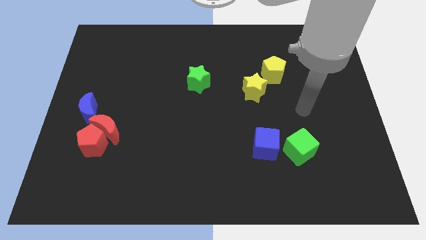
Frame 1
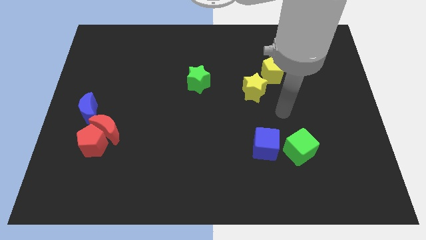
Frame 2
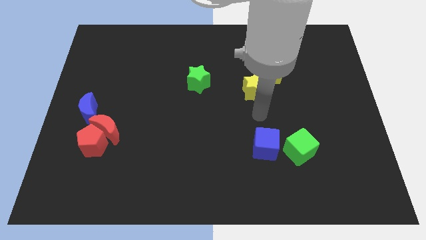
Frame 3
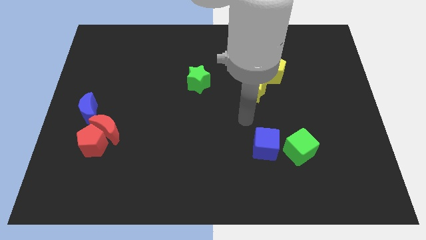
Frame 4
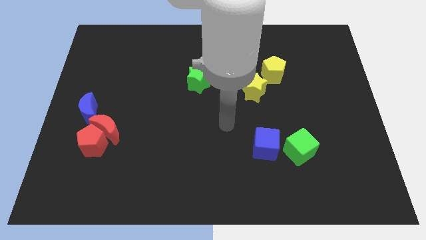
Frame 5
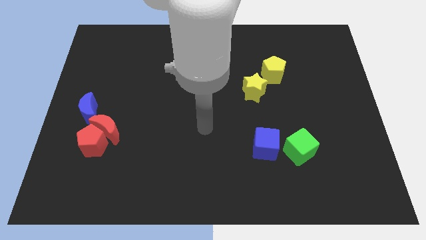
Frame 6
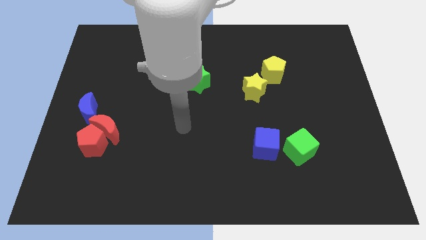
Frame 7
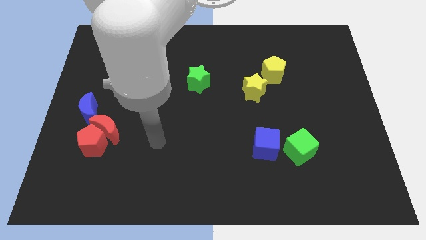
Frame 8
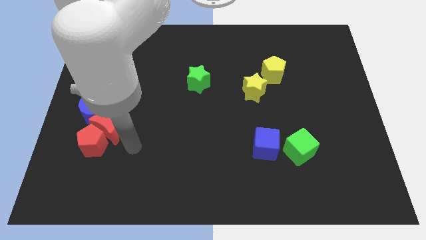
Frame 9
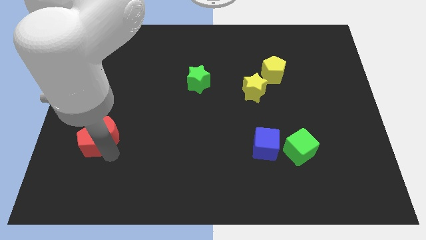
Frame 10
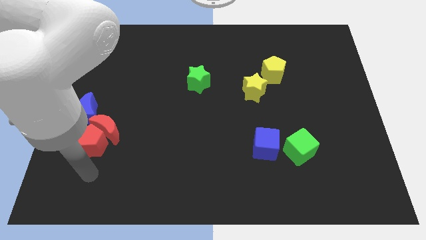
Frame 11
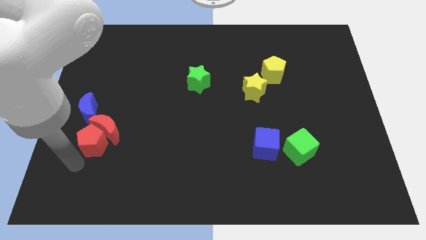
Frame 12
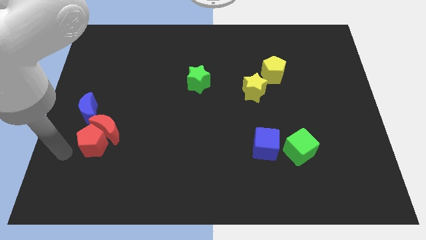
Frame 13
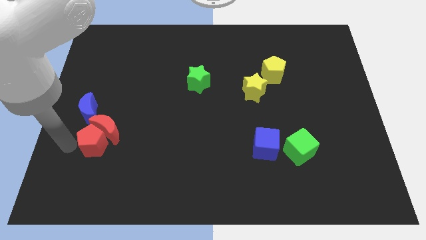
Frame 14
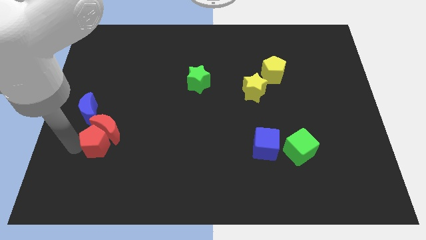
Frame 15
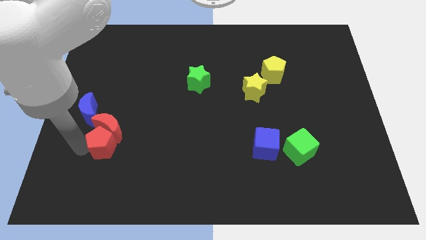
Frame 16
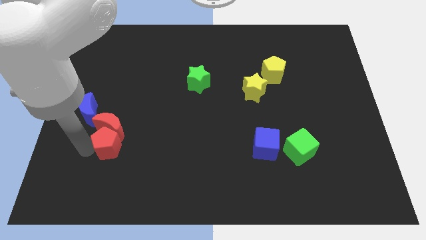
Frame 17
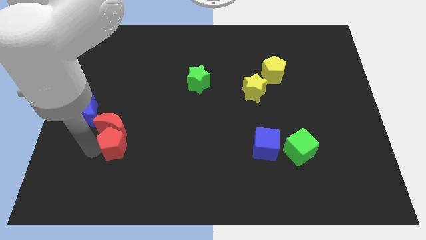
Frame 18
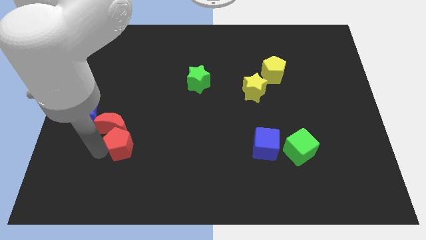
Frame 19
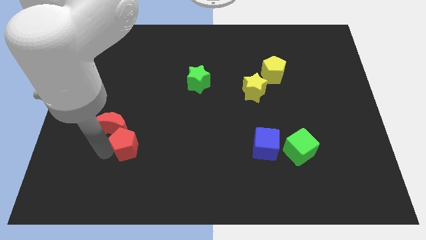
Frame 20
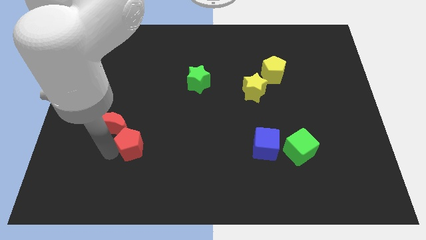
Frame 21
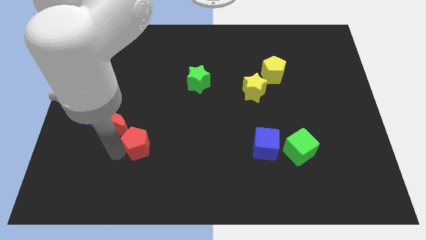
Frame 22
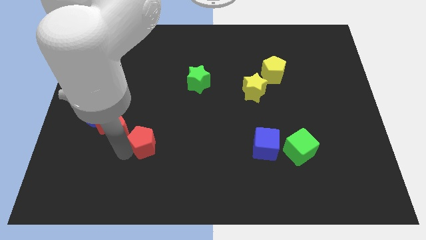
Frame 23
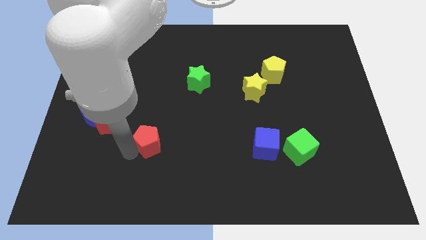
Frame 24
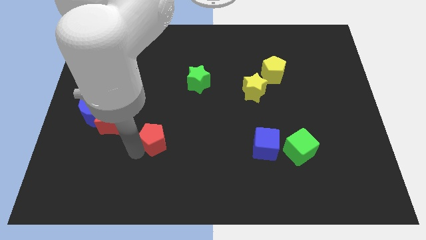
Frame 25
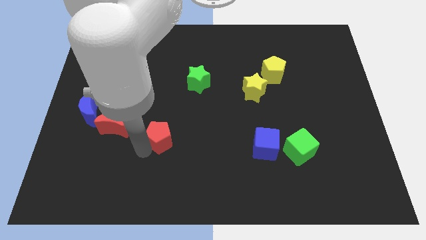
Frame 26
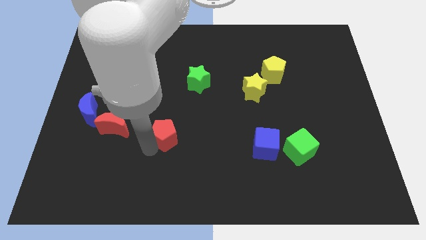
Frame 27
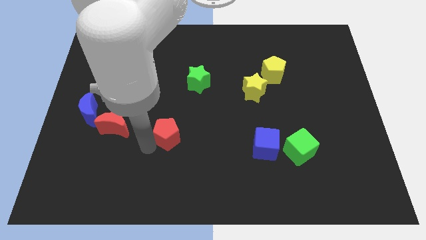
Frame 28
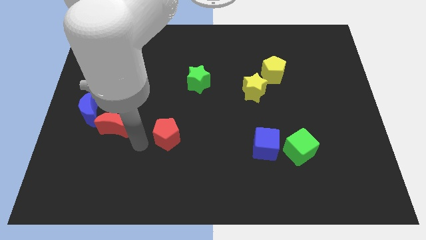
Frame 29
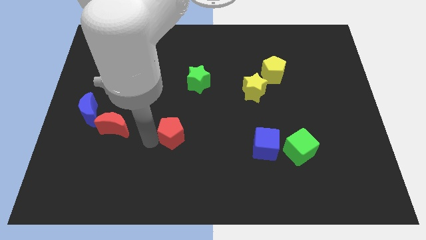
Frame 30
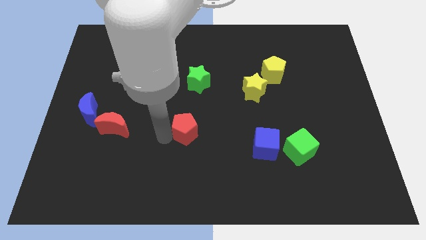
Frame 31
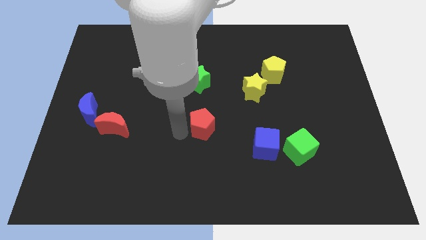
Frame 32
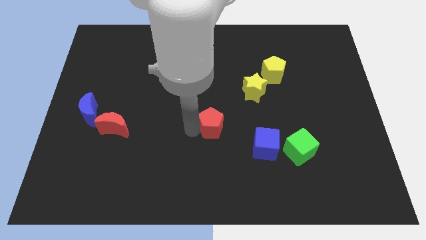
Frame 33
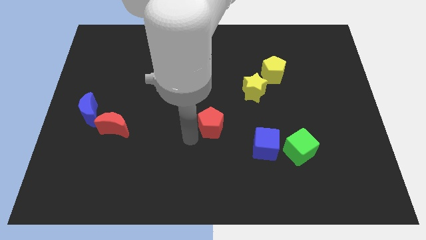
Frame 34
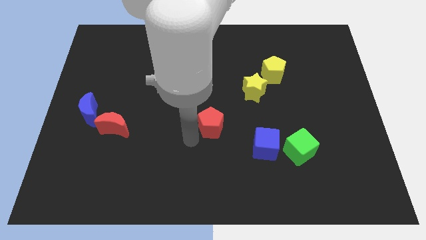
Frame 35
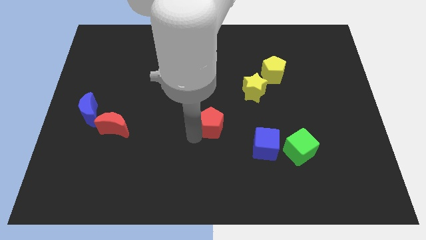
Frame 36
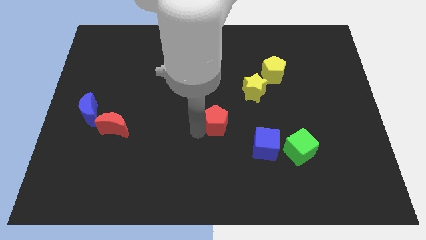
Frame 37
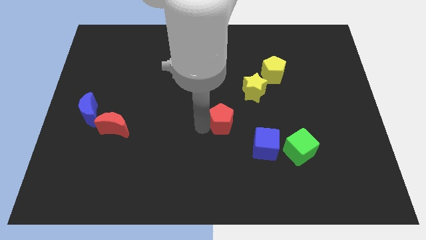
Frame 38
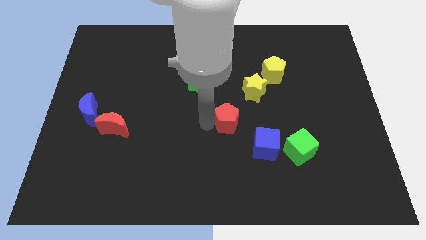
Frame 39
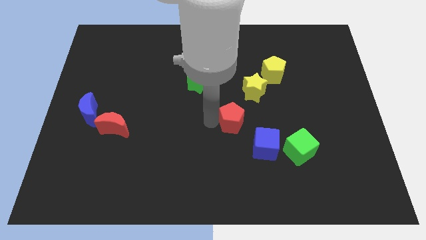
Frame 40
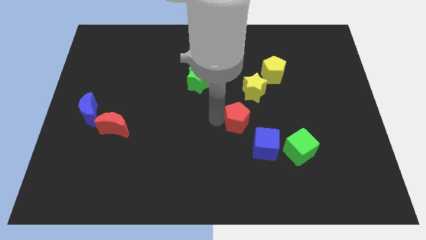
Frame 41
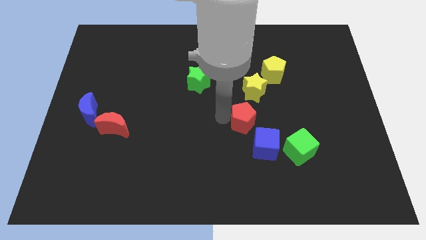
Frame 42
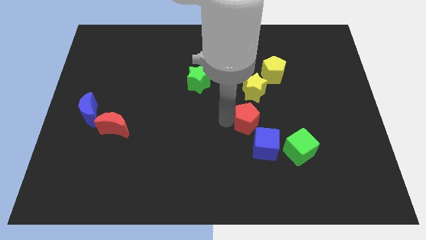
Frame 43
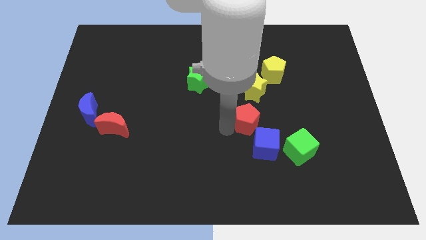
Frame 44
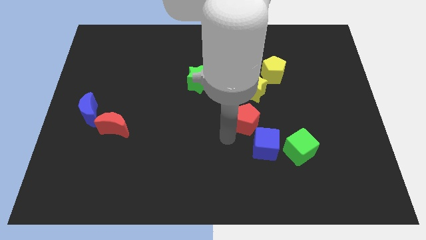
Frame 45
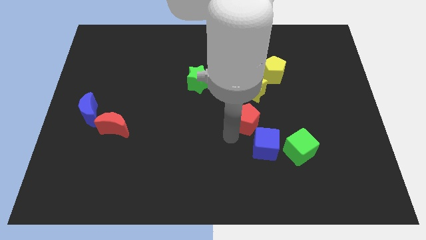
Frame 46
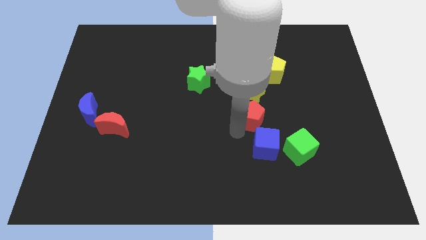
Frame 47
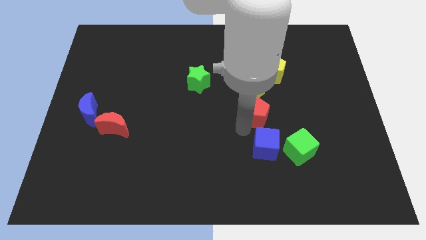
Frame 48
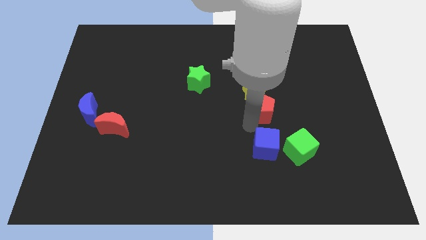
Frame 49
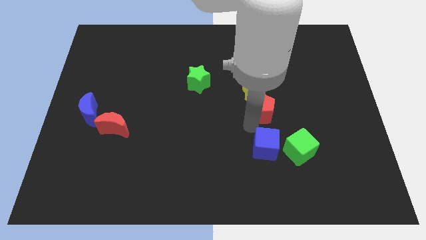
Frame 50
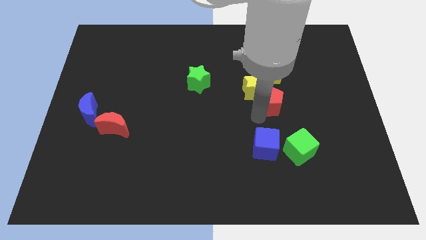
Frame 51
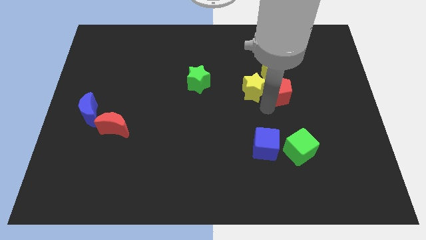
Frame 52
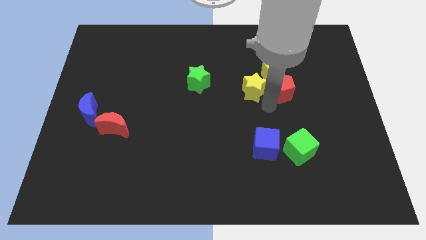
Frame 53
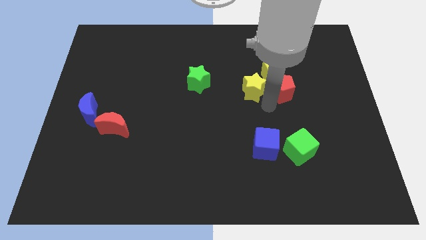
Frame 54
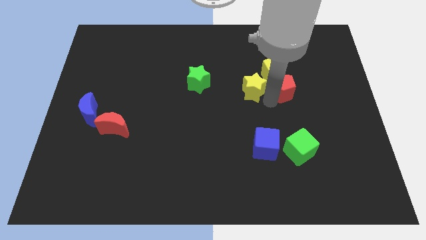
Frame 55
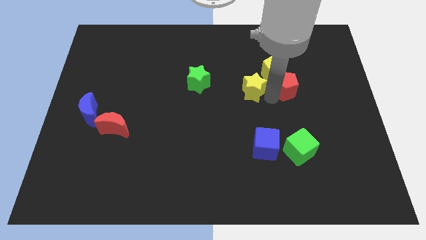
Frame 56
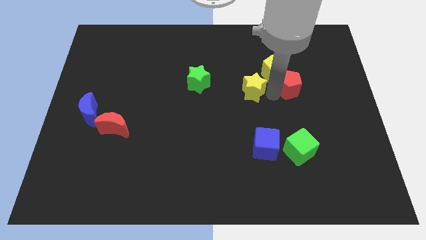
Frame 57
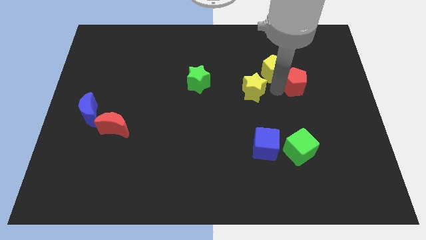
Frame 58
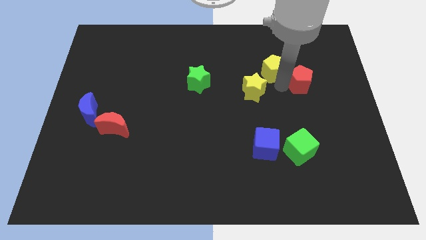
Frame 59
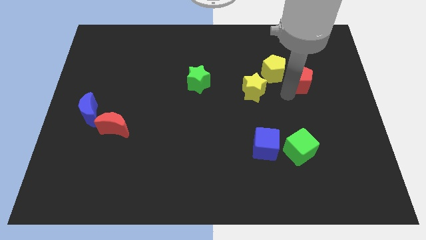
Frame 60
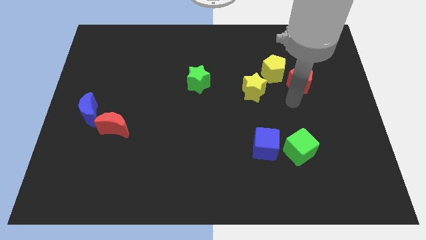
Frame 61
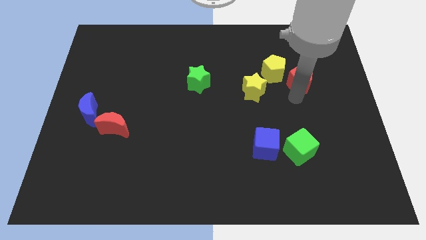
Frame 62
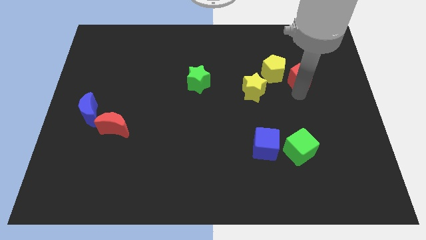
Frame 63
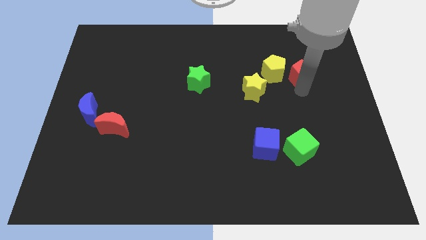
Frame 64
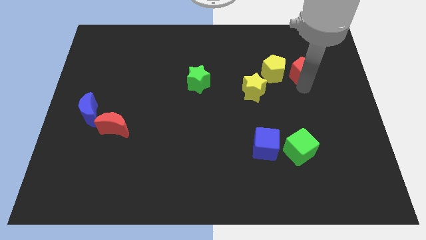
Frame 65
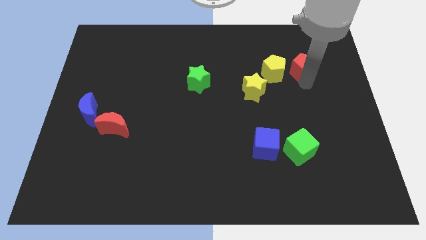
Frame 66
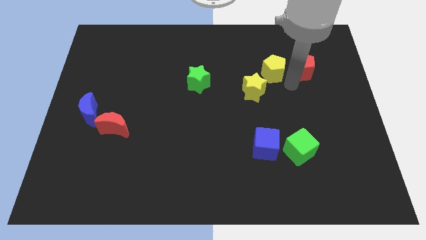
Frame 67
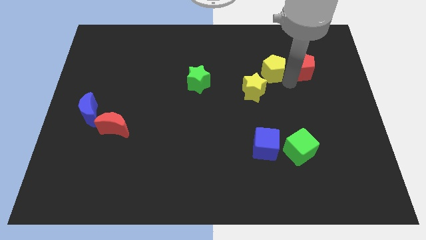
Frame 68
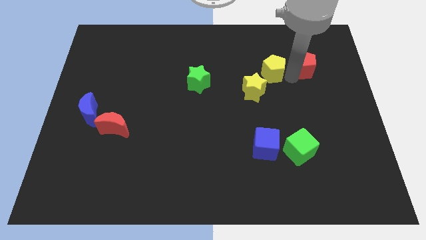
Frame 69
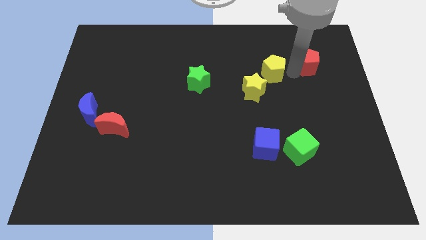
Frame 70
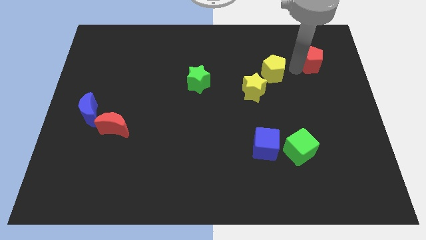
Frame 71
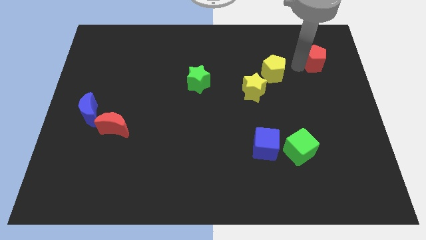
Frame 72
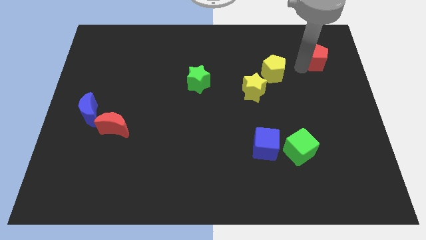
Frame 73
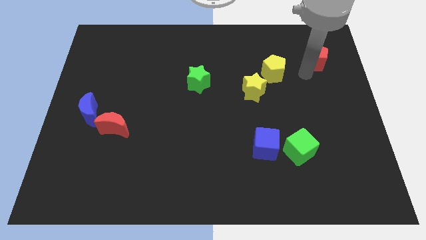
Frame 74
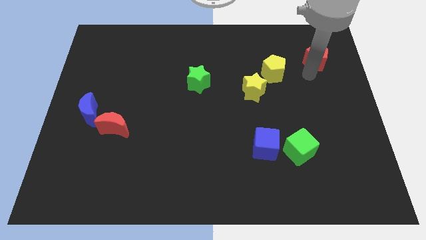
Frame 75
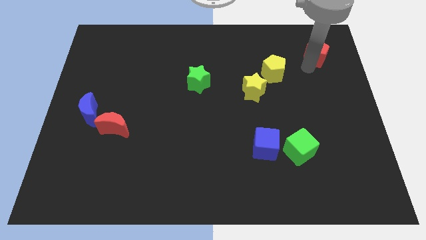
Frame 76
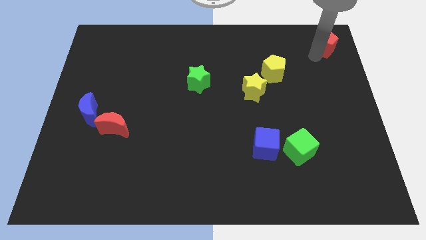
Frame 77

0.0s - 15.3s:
push the red pentagon to the top right of the board
